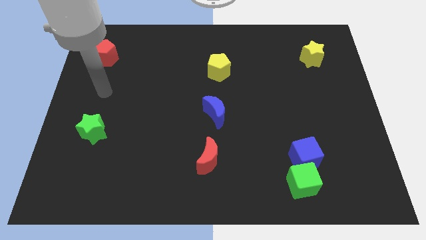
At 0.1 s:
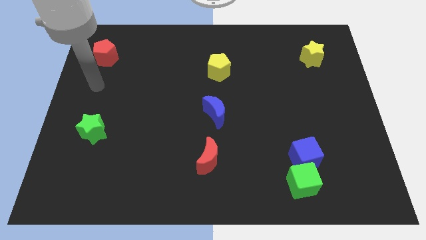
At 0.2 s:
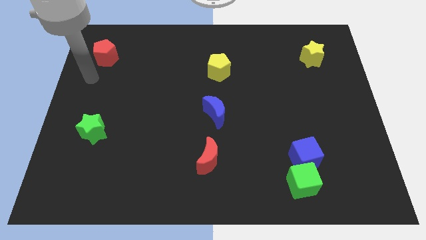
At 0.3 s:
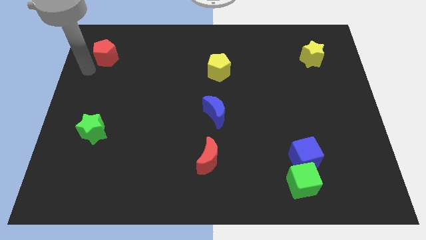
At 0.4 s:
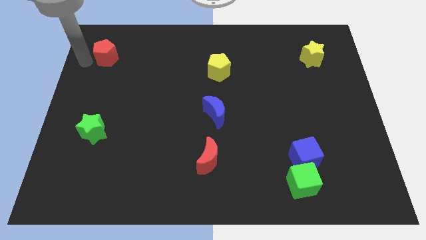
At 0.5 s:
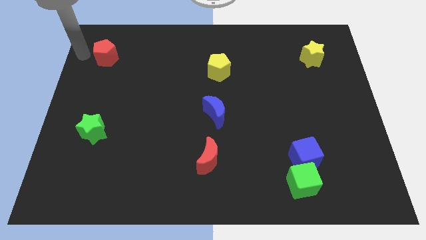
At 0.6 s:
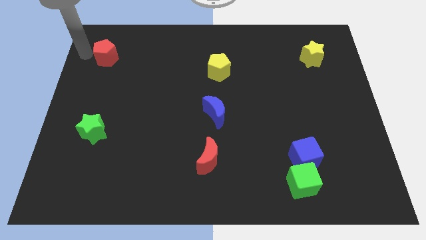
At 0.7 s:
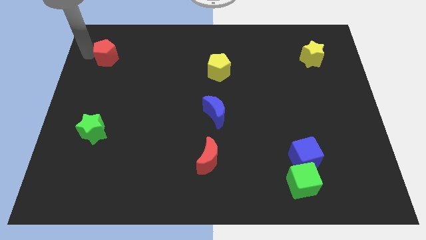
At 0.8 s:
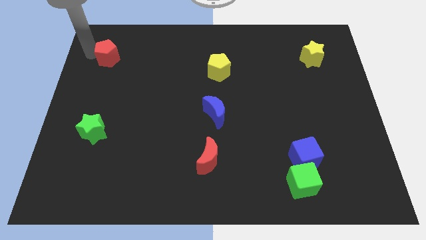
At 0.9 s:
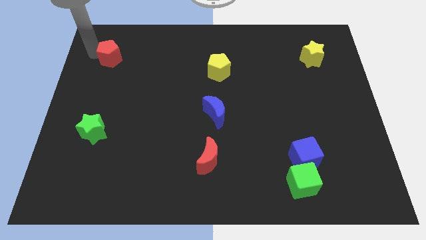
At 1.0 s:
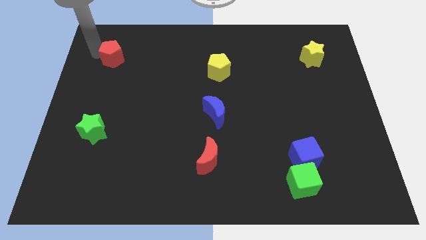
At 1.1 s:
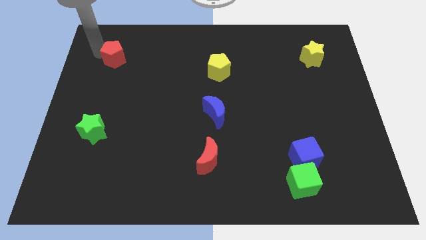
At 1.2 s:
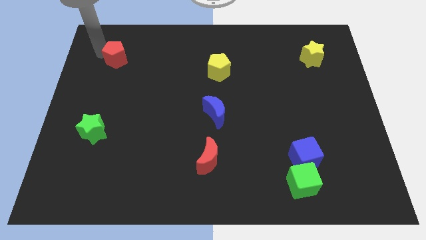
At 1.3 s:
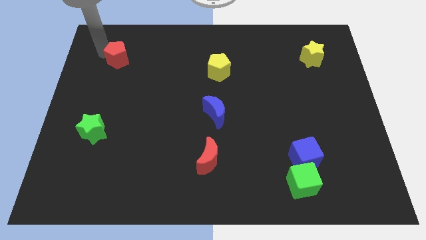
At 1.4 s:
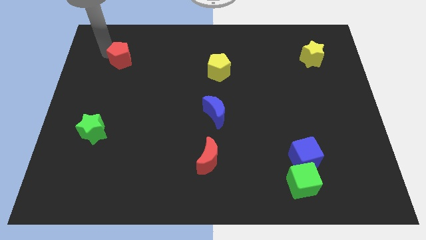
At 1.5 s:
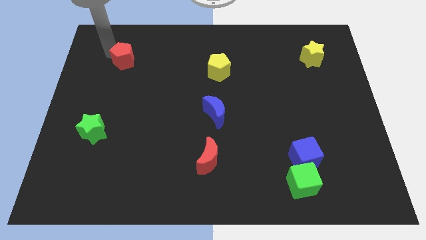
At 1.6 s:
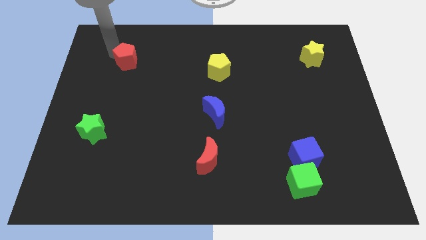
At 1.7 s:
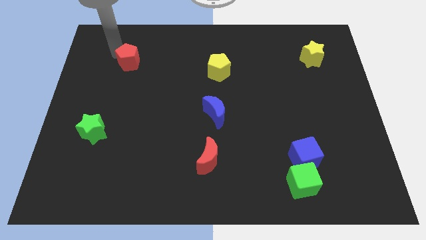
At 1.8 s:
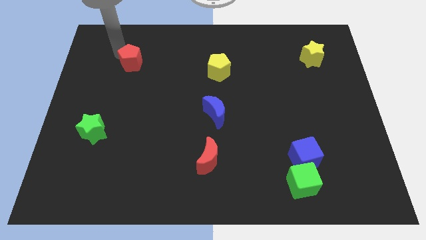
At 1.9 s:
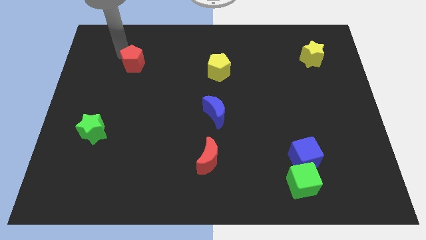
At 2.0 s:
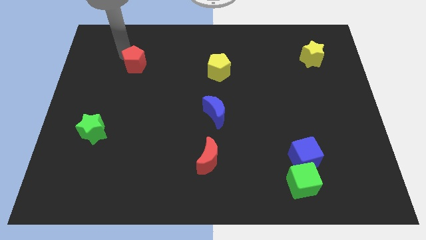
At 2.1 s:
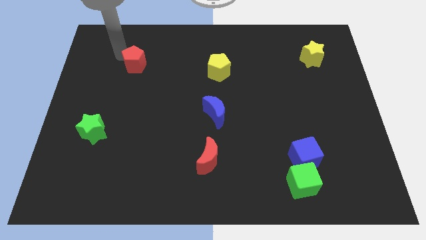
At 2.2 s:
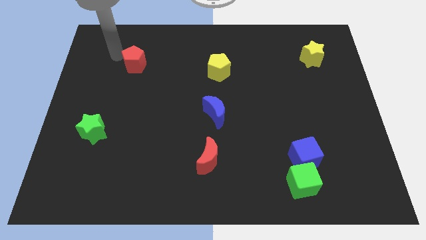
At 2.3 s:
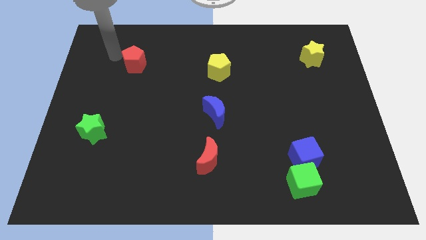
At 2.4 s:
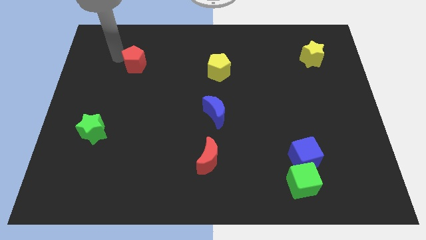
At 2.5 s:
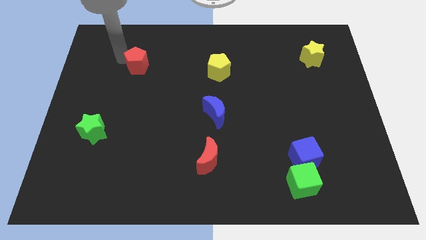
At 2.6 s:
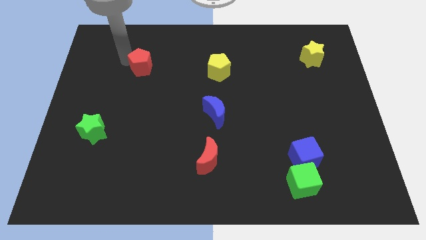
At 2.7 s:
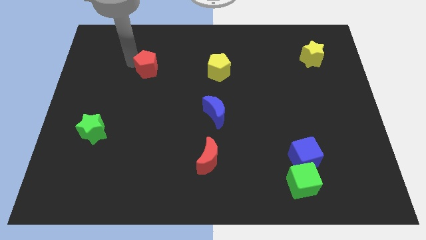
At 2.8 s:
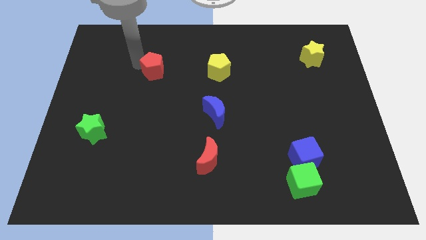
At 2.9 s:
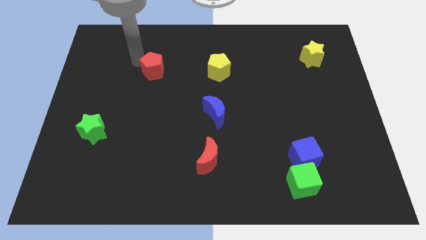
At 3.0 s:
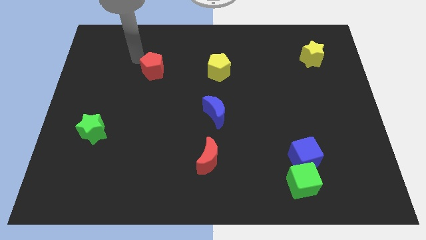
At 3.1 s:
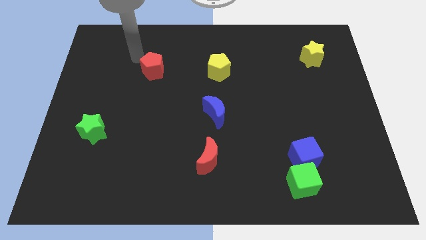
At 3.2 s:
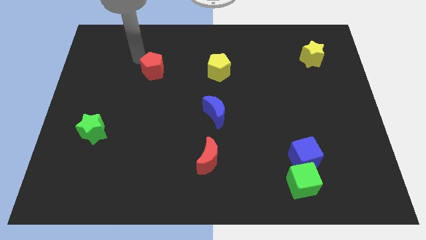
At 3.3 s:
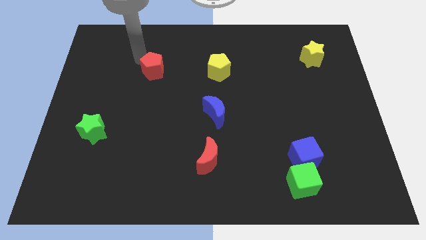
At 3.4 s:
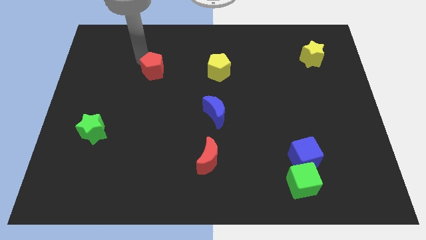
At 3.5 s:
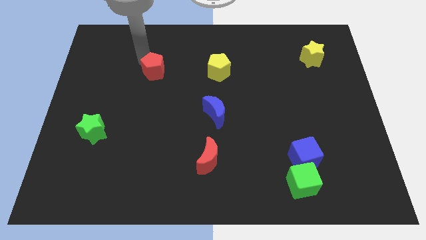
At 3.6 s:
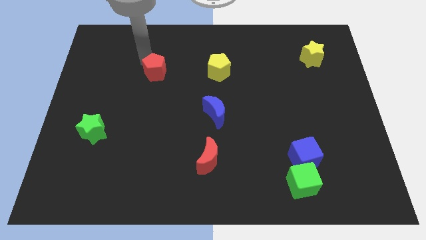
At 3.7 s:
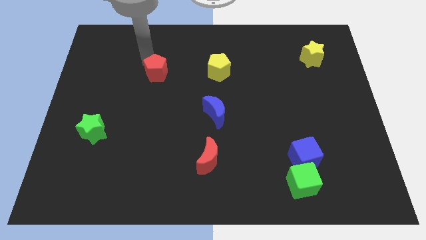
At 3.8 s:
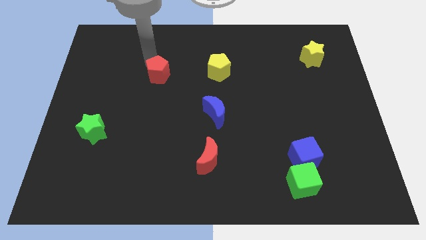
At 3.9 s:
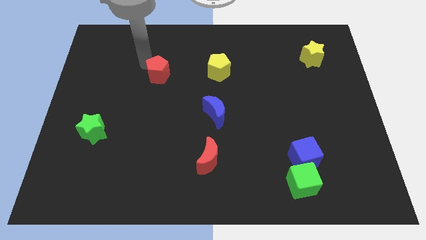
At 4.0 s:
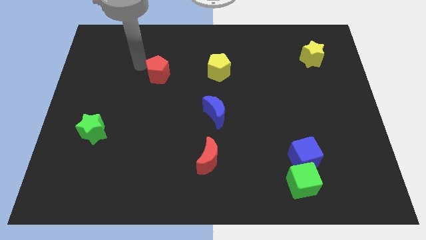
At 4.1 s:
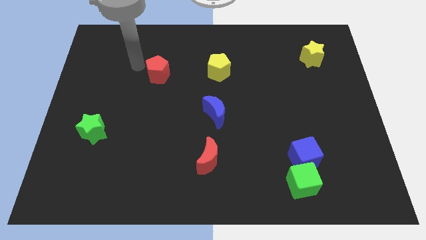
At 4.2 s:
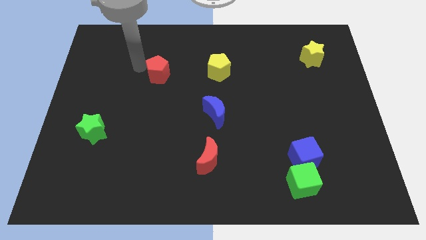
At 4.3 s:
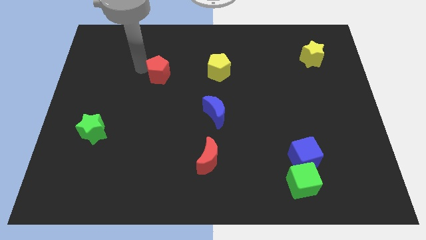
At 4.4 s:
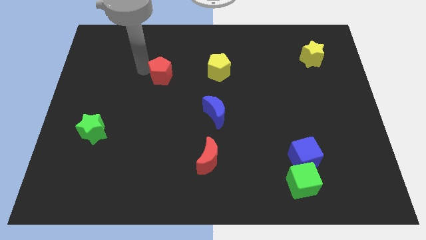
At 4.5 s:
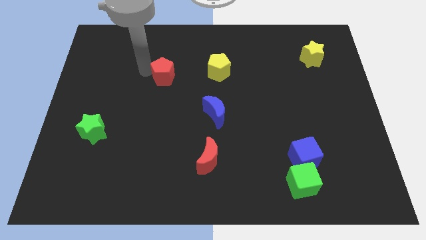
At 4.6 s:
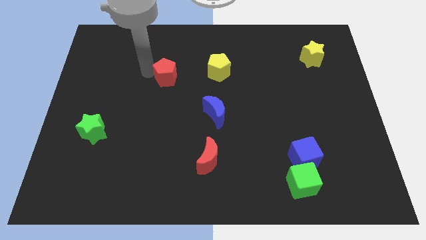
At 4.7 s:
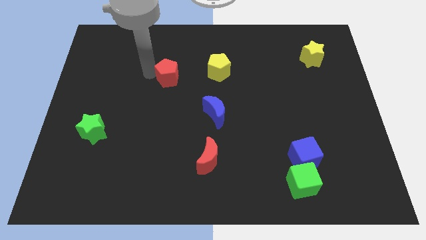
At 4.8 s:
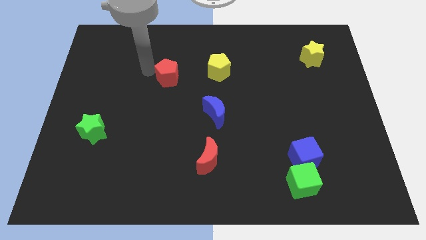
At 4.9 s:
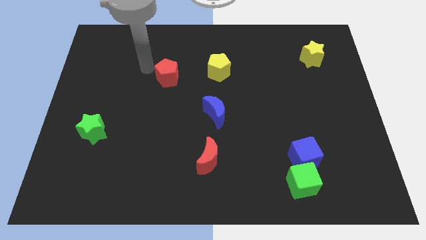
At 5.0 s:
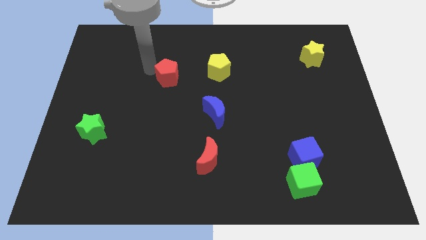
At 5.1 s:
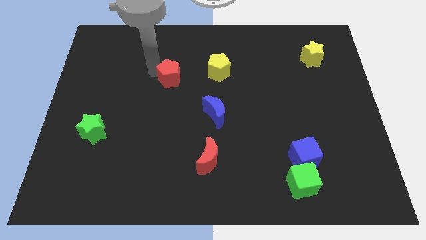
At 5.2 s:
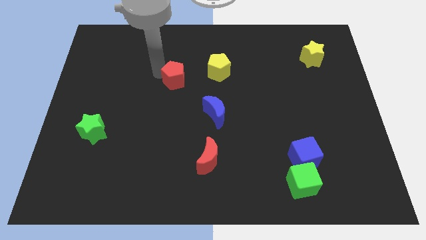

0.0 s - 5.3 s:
put the red pentagon to the middle of the board

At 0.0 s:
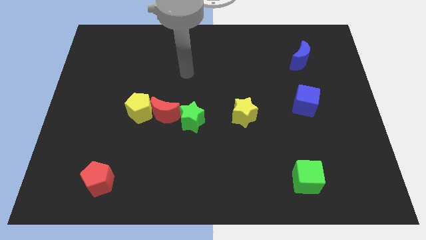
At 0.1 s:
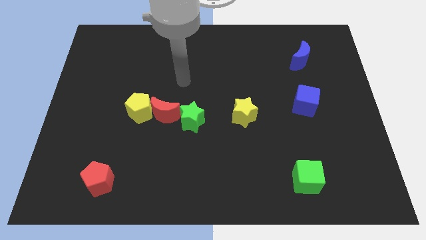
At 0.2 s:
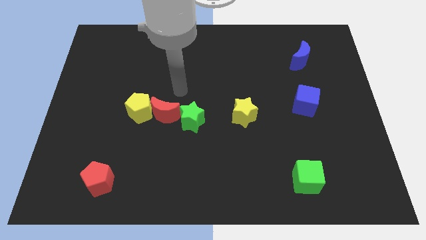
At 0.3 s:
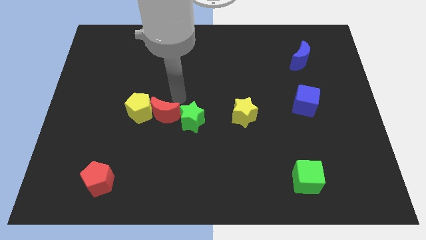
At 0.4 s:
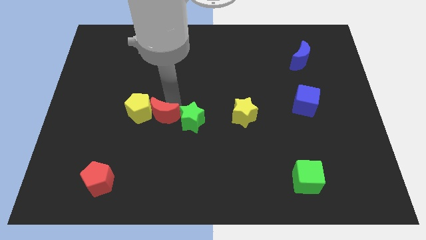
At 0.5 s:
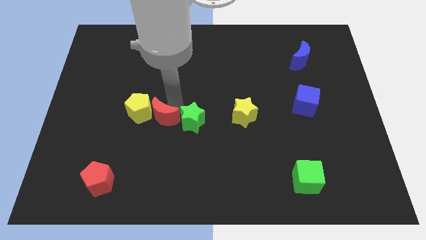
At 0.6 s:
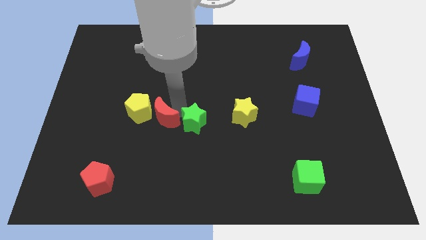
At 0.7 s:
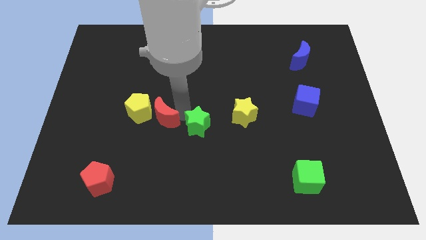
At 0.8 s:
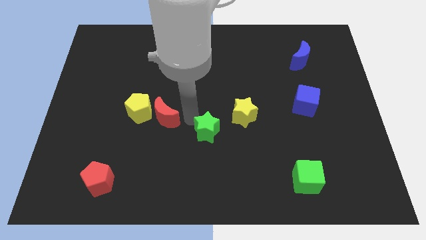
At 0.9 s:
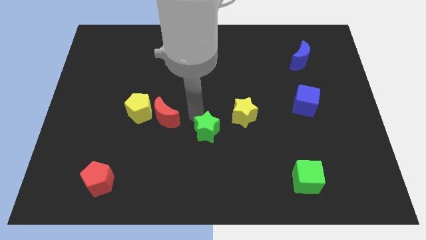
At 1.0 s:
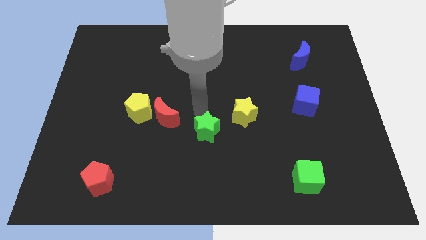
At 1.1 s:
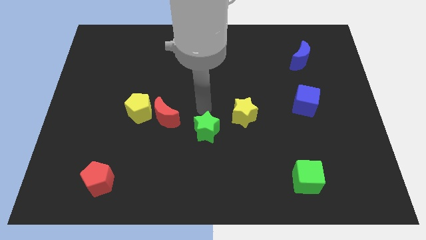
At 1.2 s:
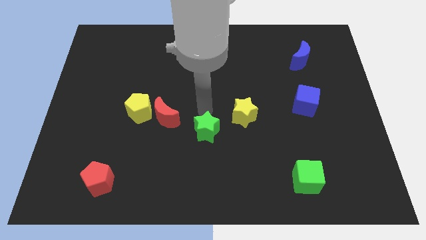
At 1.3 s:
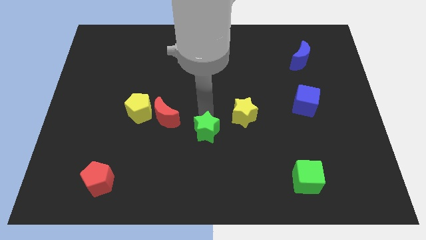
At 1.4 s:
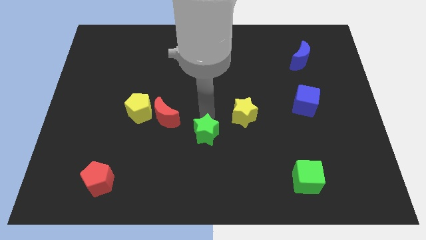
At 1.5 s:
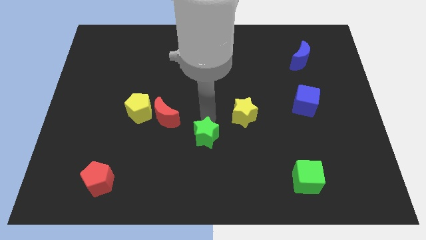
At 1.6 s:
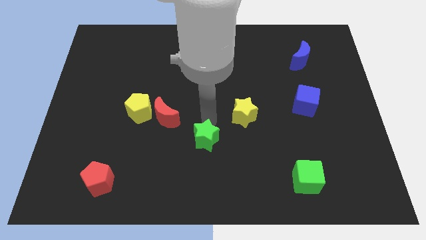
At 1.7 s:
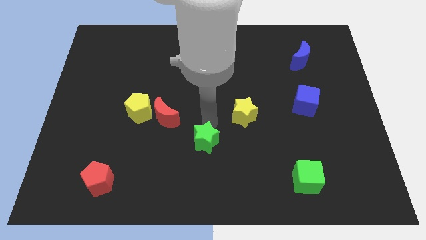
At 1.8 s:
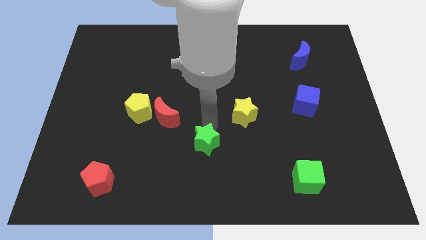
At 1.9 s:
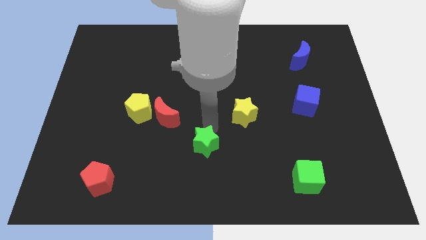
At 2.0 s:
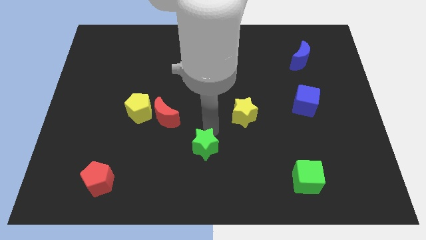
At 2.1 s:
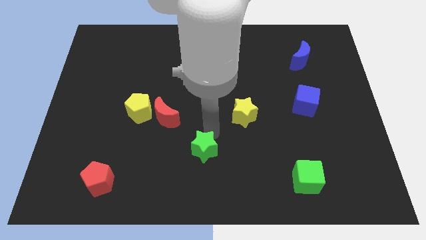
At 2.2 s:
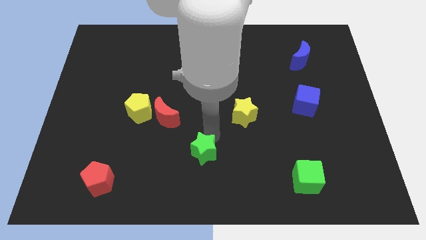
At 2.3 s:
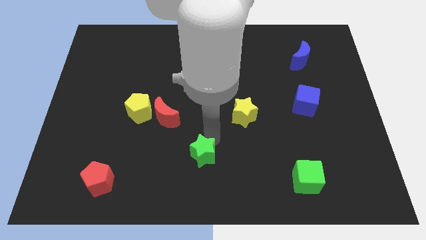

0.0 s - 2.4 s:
move the green star to the bottom side
